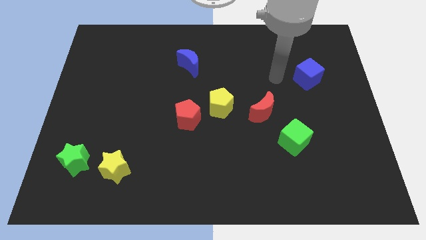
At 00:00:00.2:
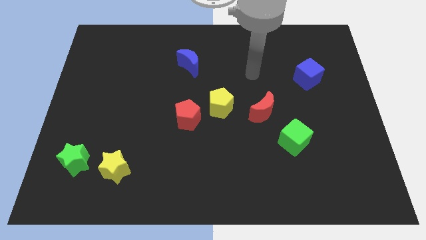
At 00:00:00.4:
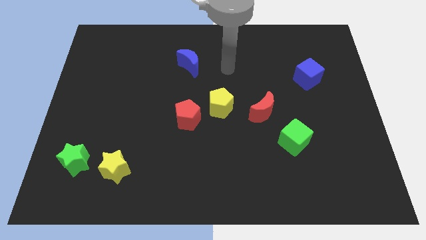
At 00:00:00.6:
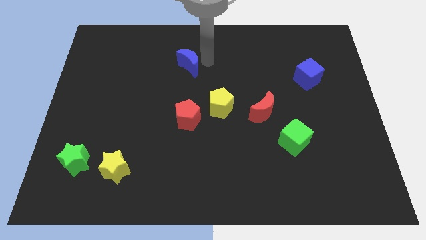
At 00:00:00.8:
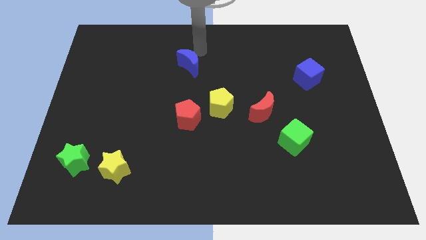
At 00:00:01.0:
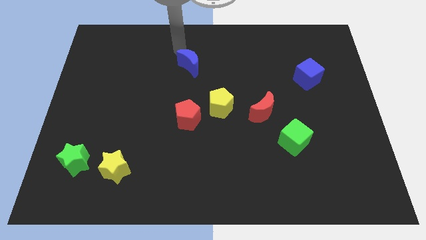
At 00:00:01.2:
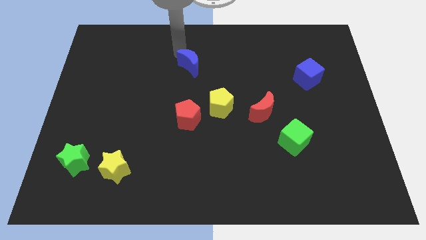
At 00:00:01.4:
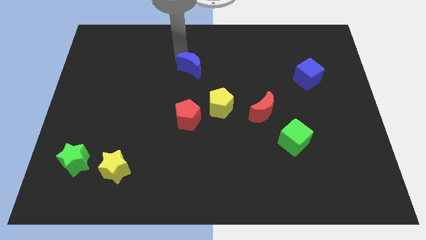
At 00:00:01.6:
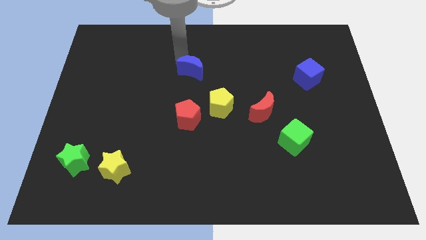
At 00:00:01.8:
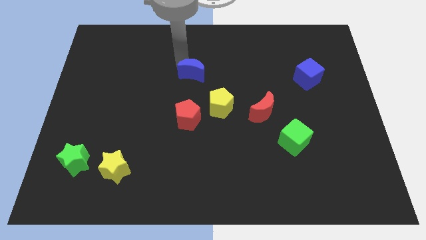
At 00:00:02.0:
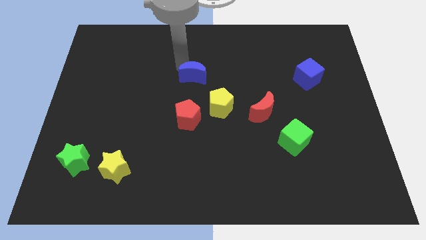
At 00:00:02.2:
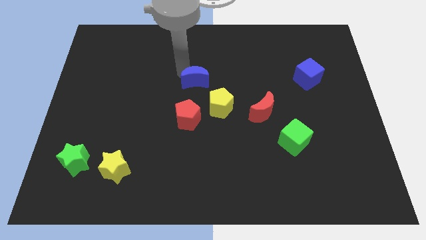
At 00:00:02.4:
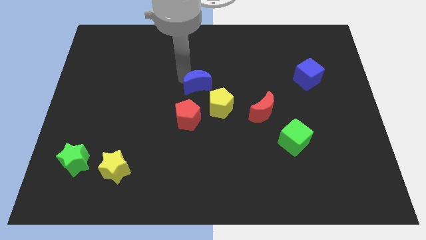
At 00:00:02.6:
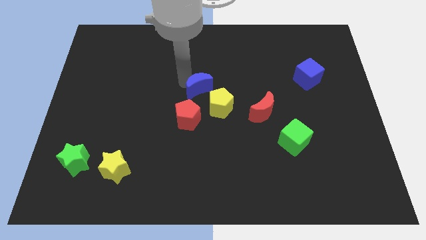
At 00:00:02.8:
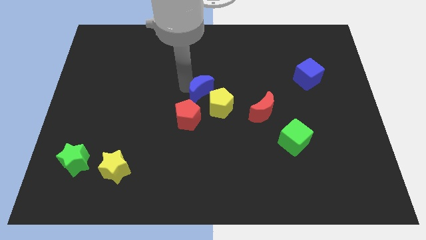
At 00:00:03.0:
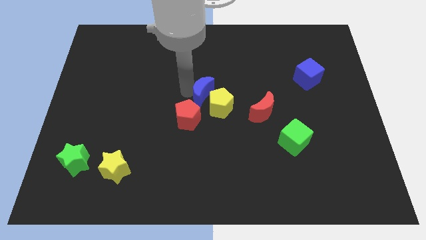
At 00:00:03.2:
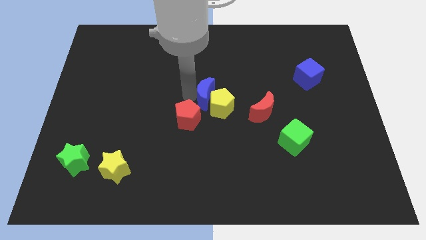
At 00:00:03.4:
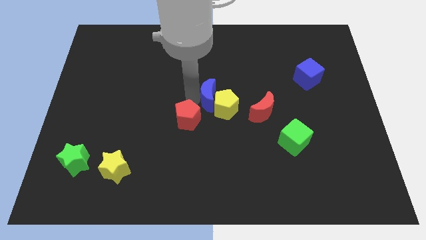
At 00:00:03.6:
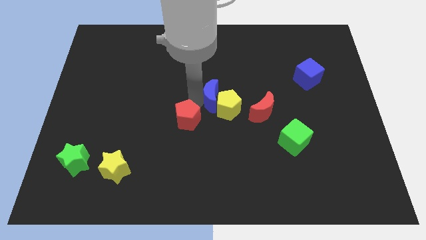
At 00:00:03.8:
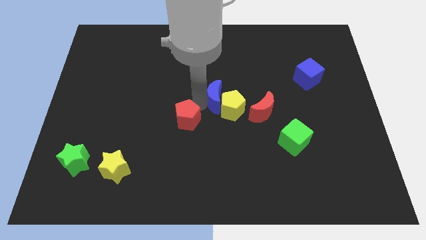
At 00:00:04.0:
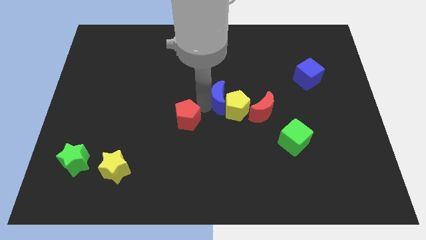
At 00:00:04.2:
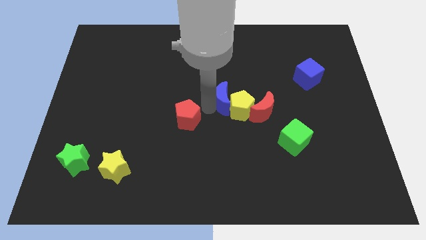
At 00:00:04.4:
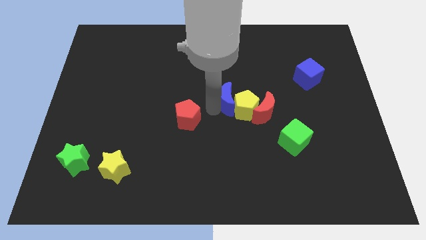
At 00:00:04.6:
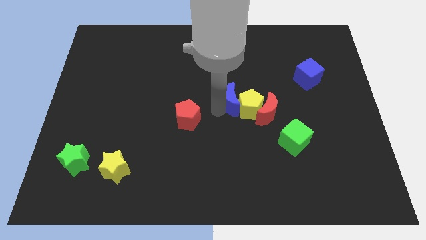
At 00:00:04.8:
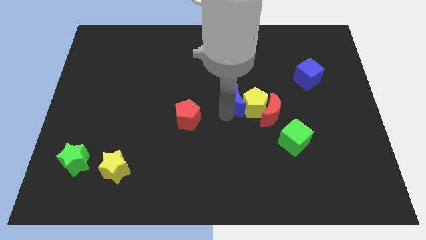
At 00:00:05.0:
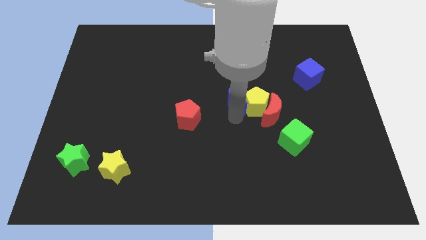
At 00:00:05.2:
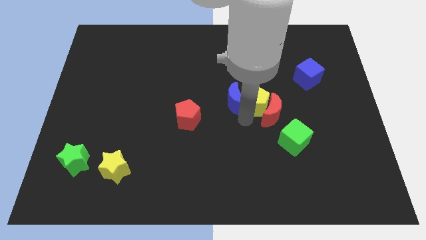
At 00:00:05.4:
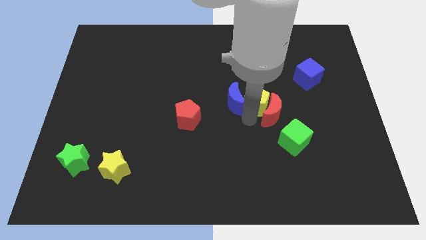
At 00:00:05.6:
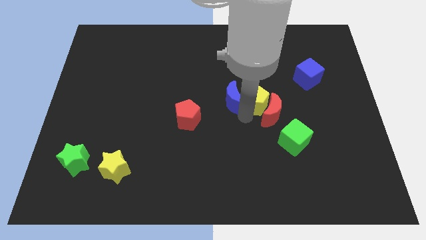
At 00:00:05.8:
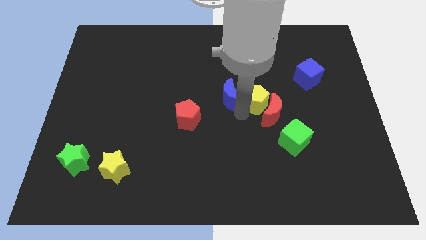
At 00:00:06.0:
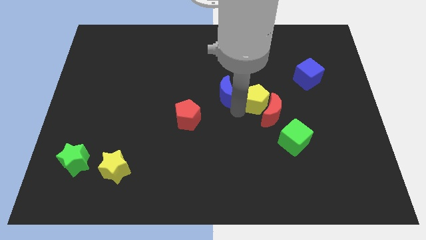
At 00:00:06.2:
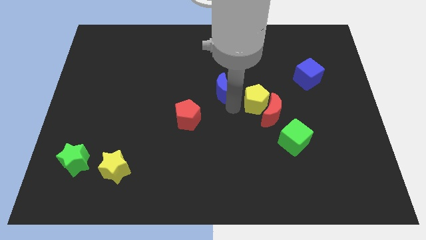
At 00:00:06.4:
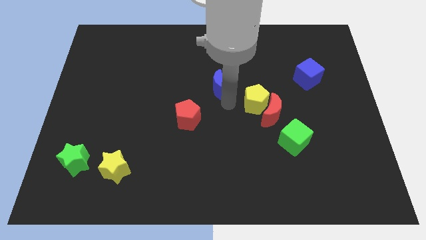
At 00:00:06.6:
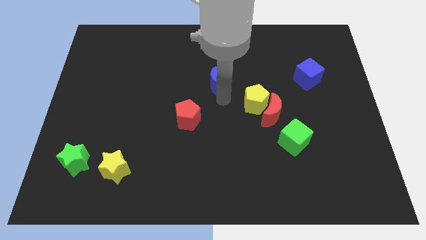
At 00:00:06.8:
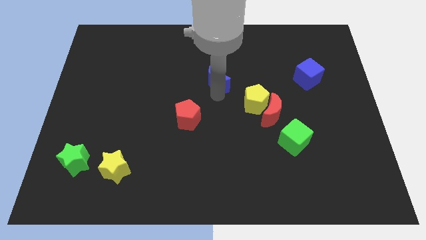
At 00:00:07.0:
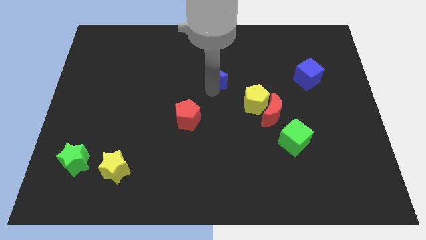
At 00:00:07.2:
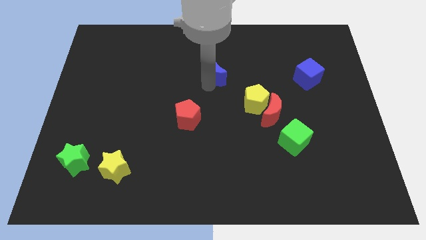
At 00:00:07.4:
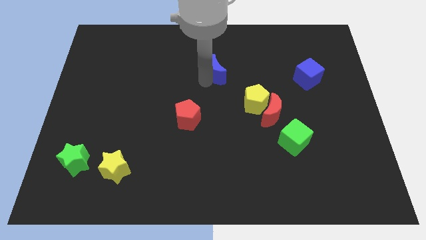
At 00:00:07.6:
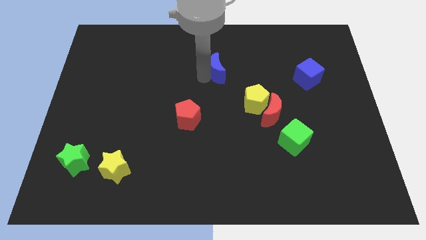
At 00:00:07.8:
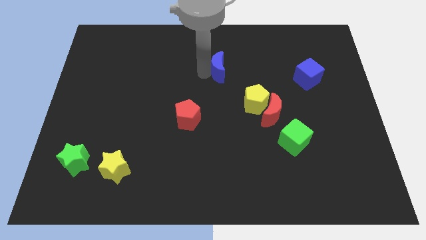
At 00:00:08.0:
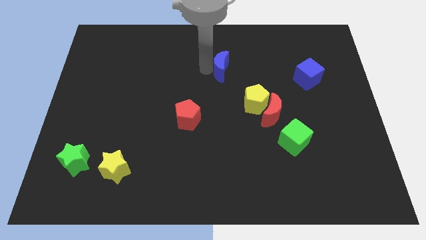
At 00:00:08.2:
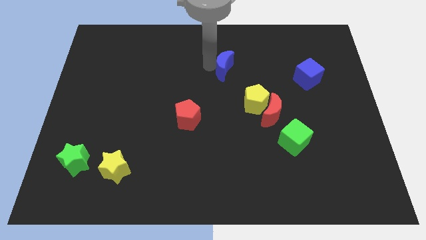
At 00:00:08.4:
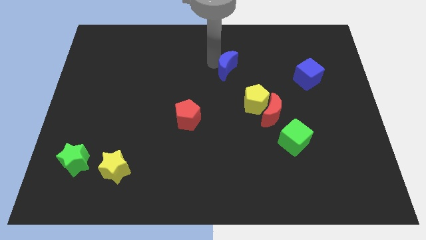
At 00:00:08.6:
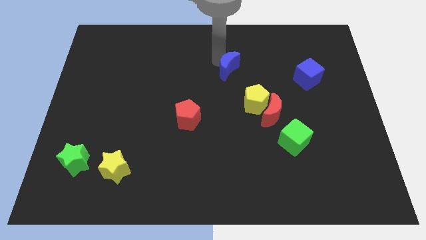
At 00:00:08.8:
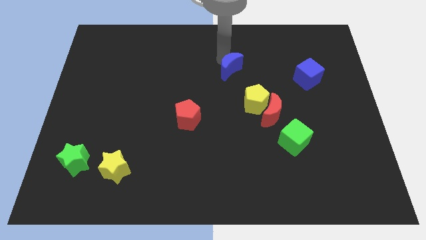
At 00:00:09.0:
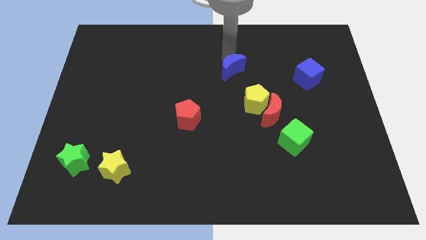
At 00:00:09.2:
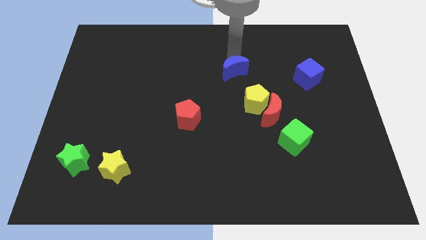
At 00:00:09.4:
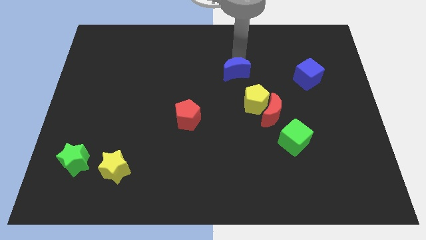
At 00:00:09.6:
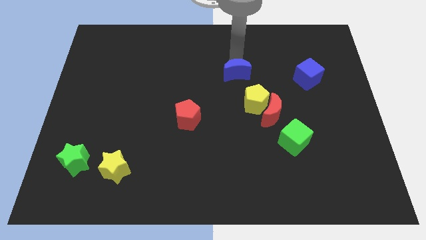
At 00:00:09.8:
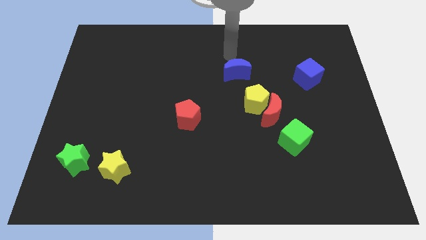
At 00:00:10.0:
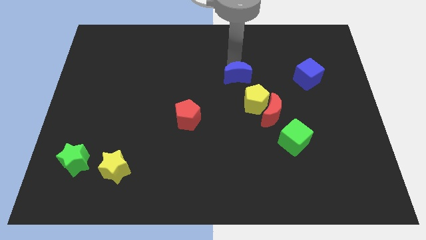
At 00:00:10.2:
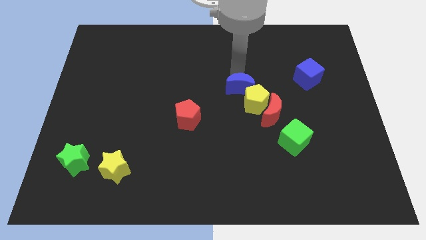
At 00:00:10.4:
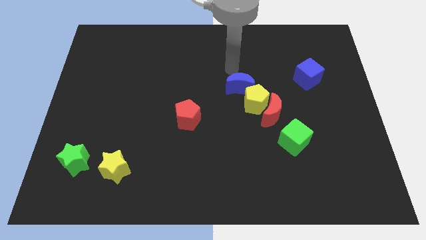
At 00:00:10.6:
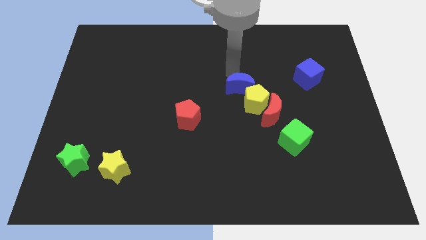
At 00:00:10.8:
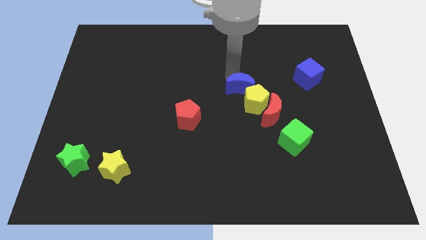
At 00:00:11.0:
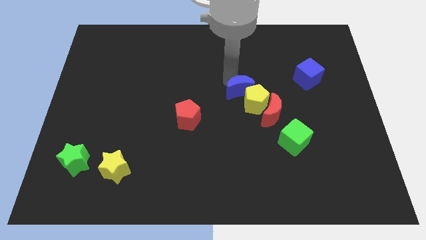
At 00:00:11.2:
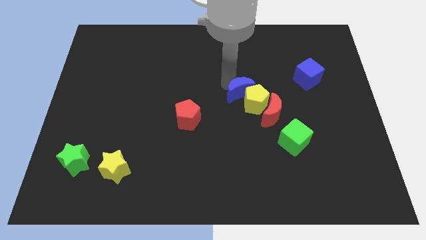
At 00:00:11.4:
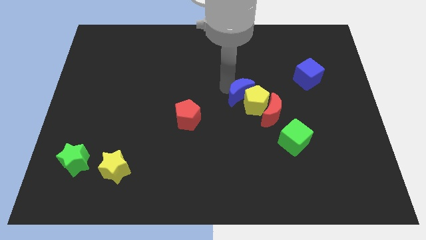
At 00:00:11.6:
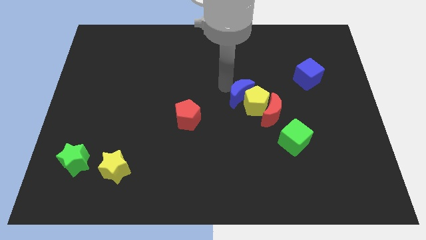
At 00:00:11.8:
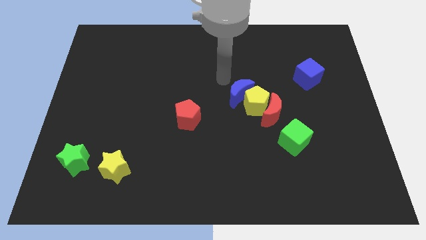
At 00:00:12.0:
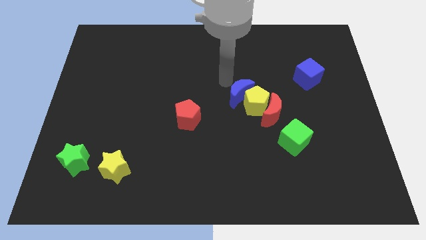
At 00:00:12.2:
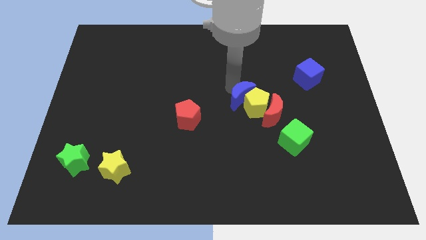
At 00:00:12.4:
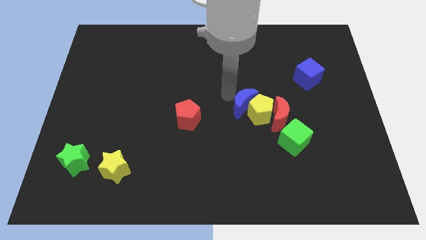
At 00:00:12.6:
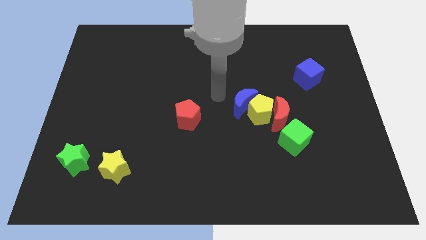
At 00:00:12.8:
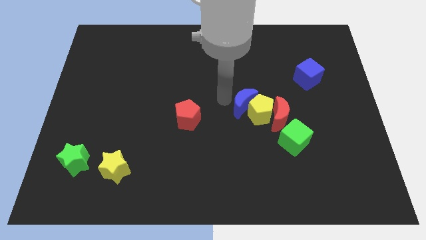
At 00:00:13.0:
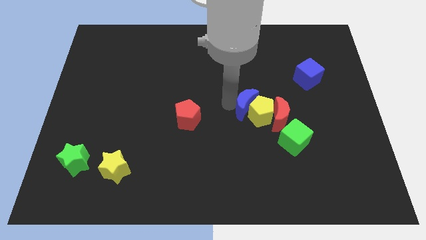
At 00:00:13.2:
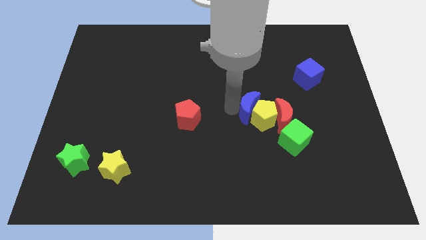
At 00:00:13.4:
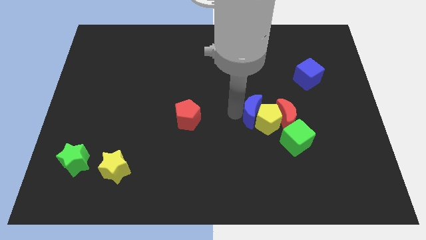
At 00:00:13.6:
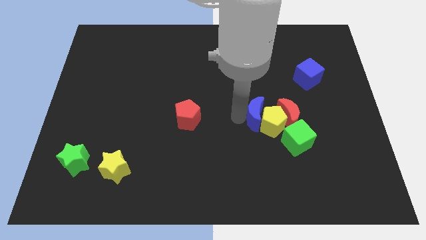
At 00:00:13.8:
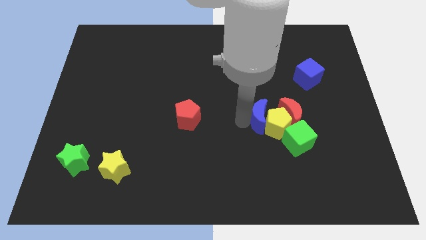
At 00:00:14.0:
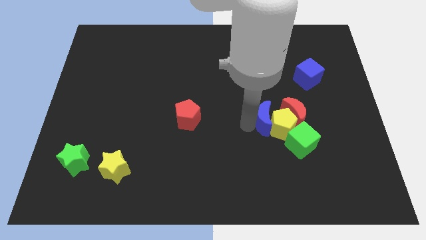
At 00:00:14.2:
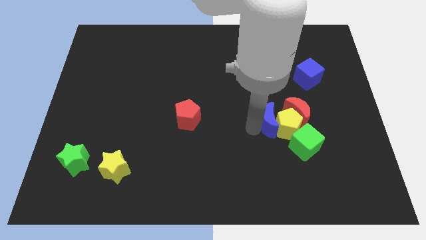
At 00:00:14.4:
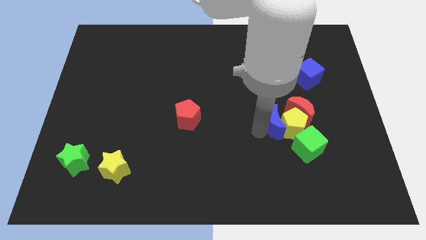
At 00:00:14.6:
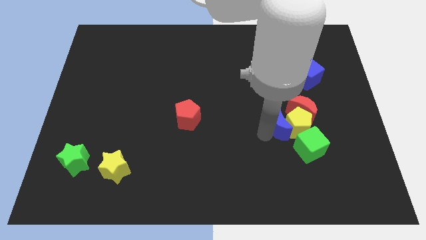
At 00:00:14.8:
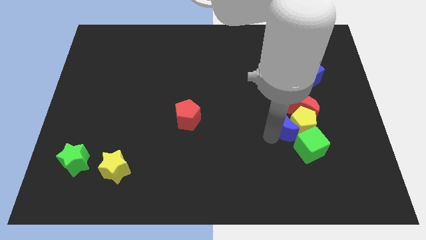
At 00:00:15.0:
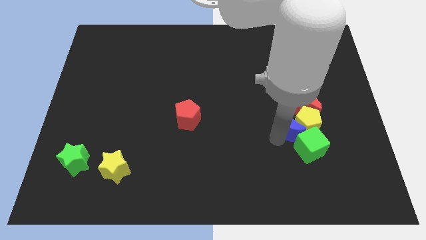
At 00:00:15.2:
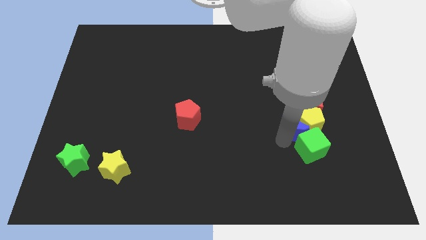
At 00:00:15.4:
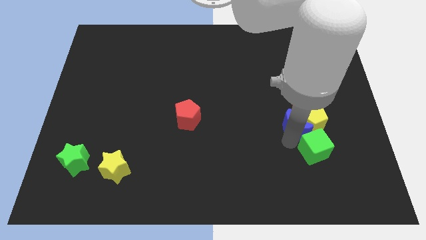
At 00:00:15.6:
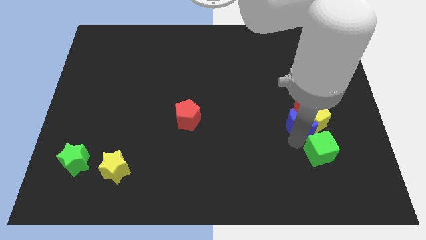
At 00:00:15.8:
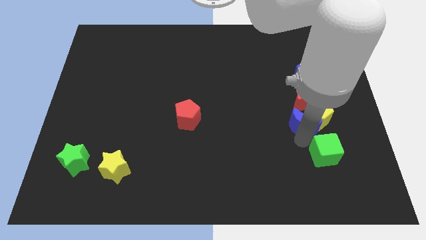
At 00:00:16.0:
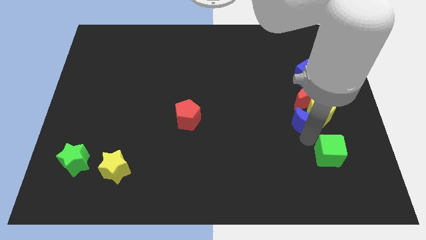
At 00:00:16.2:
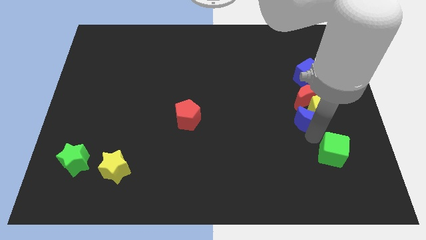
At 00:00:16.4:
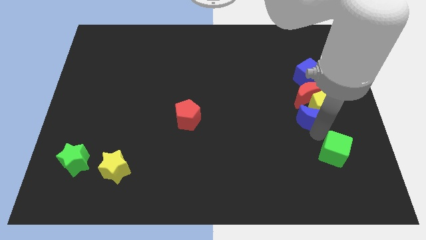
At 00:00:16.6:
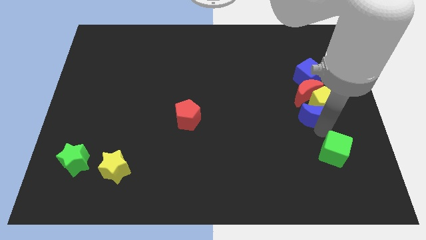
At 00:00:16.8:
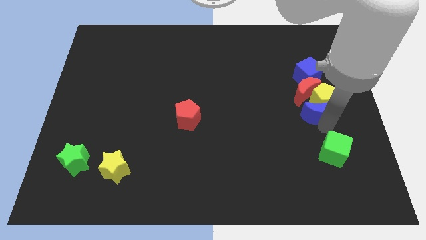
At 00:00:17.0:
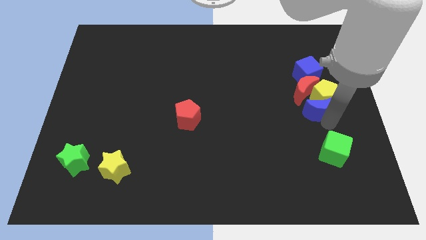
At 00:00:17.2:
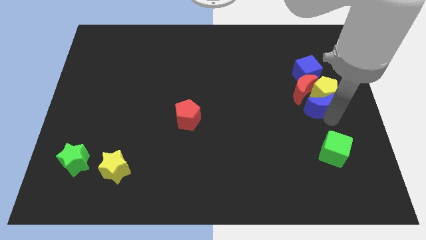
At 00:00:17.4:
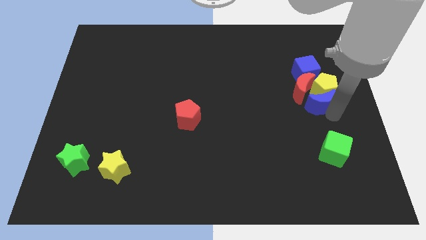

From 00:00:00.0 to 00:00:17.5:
push the blue moon to the red moon
